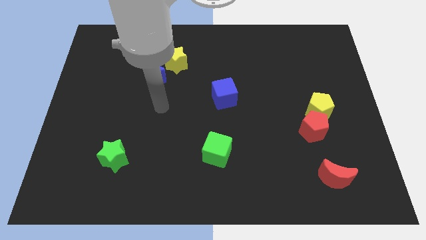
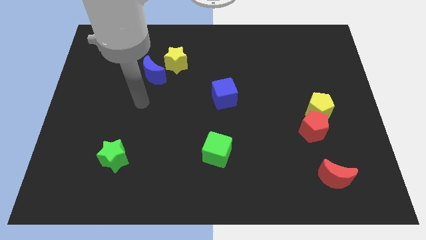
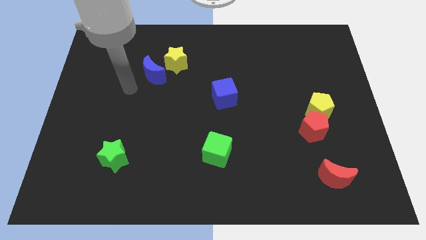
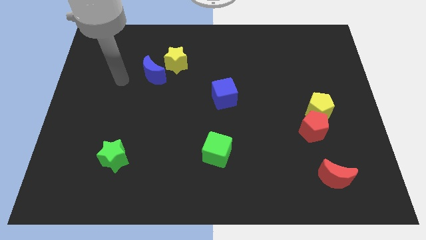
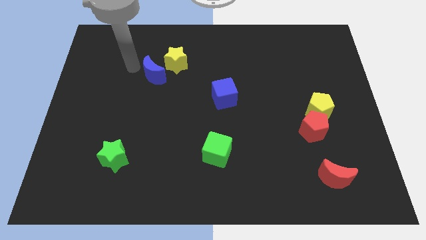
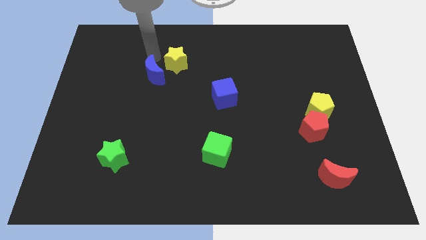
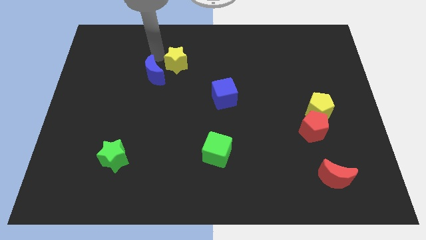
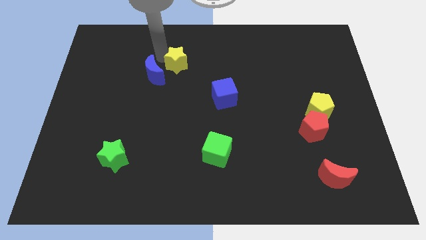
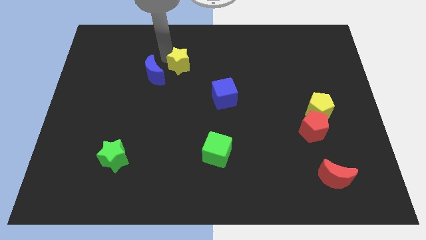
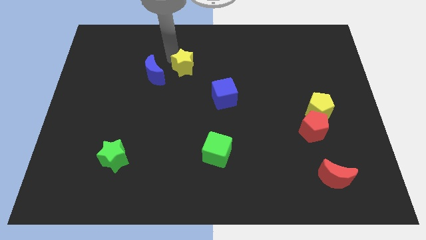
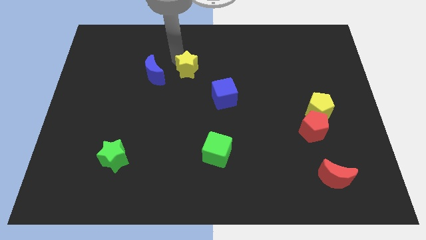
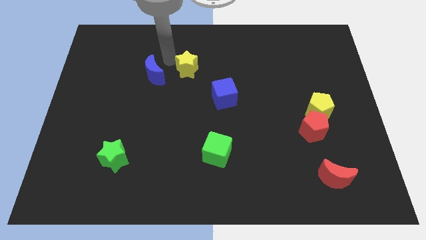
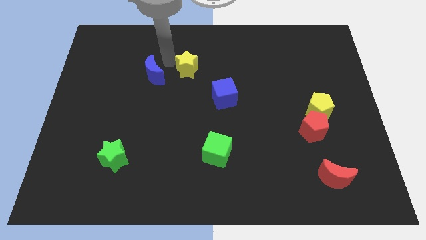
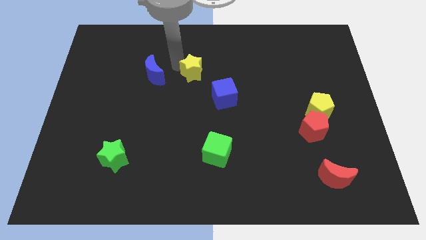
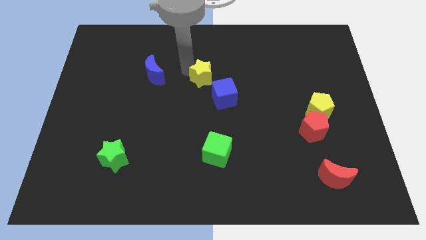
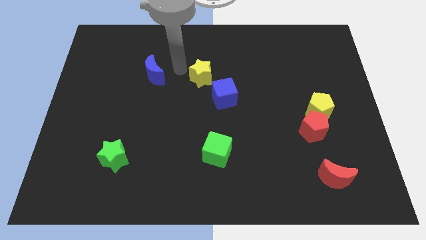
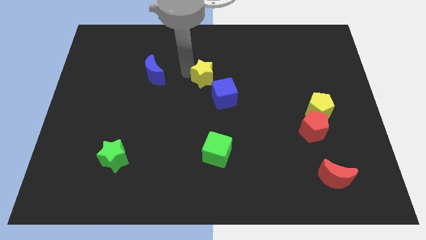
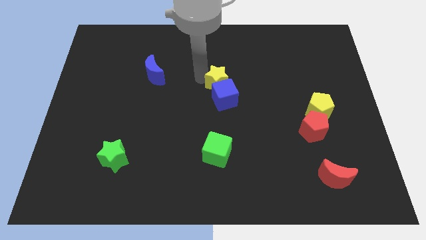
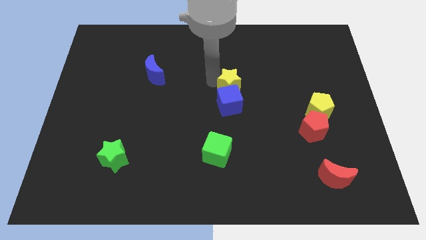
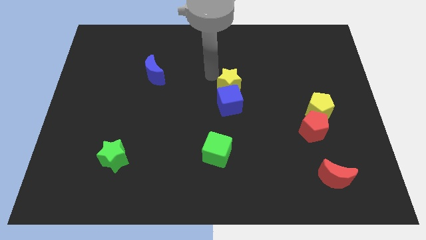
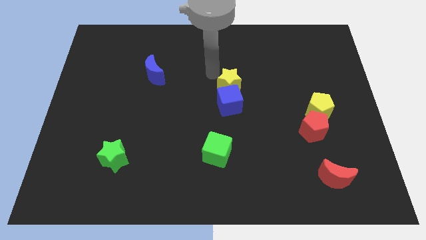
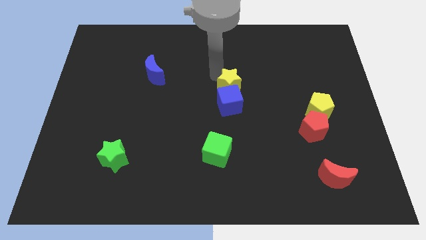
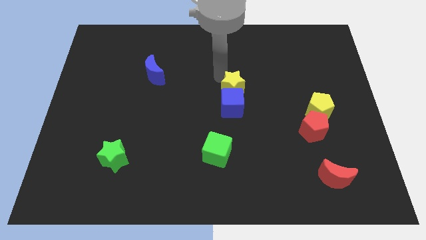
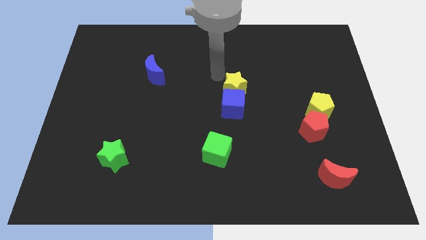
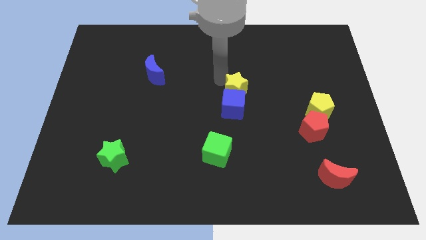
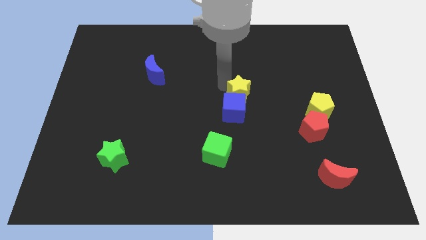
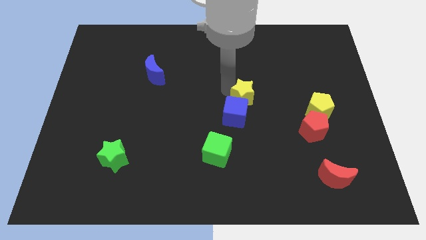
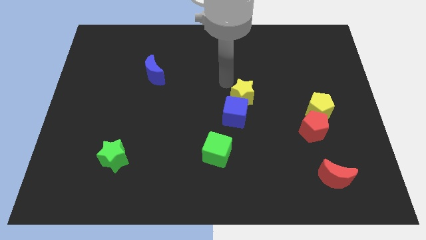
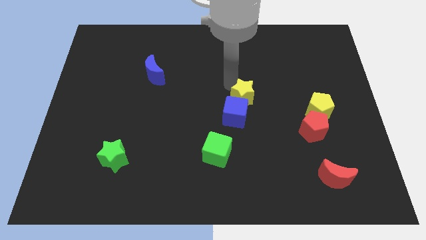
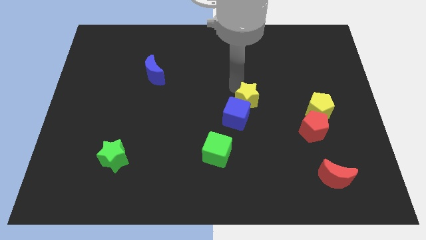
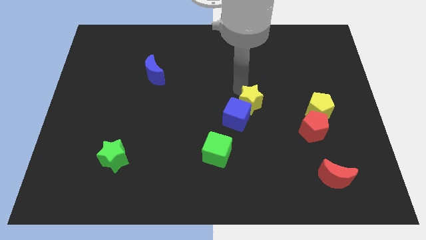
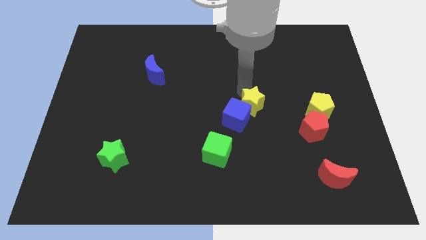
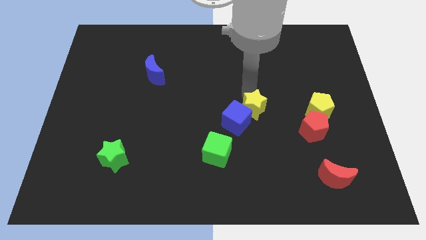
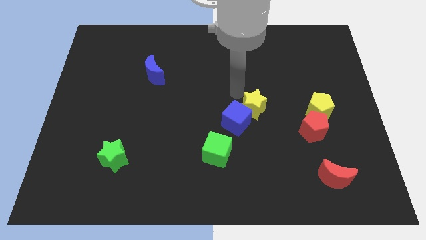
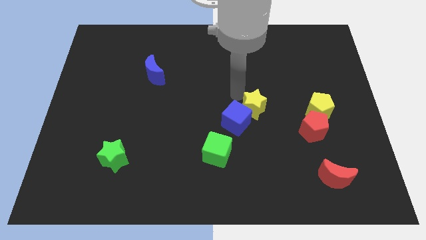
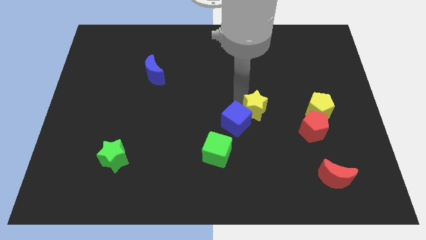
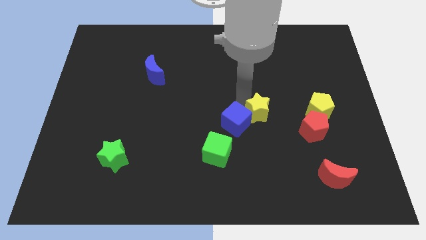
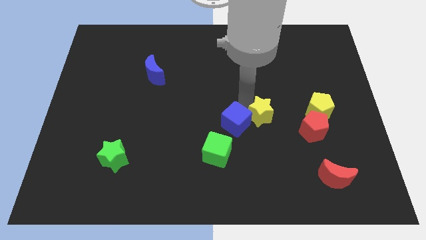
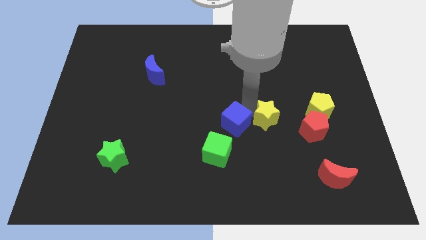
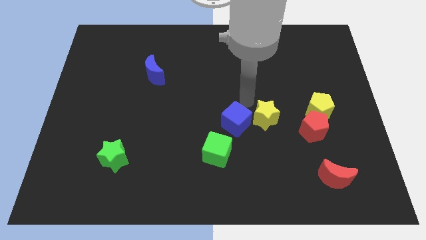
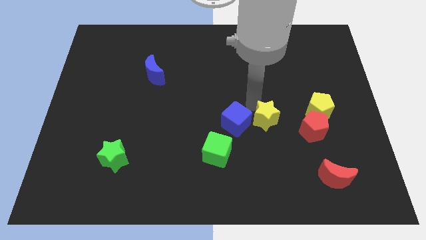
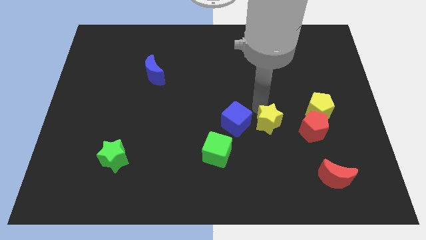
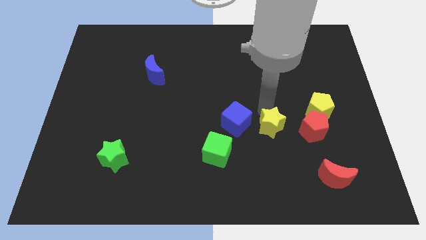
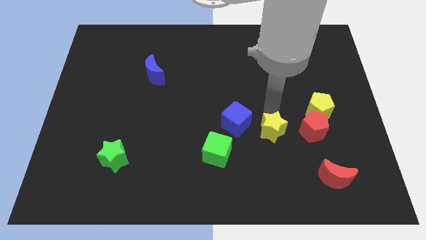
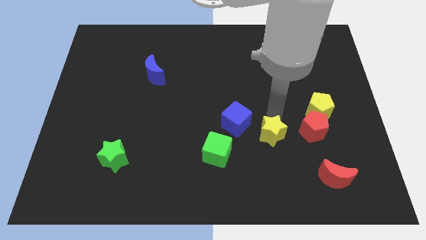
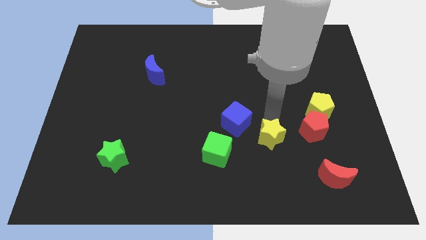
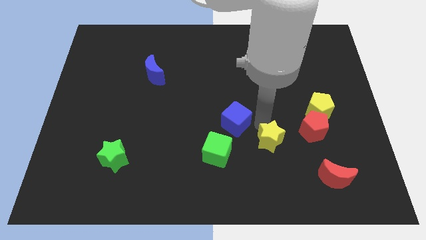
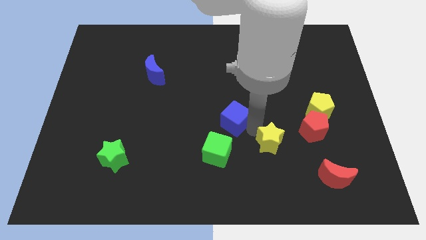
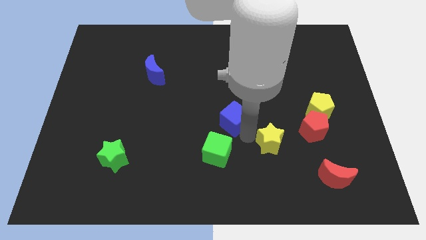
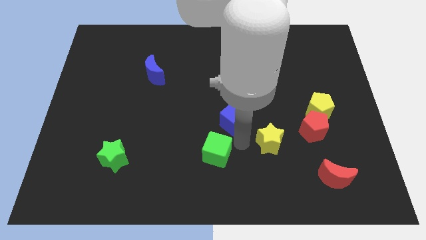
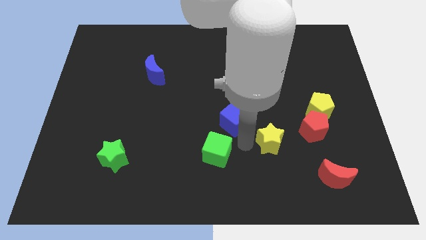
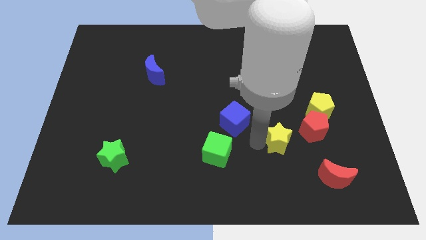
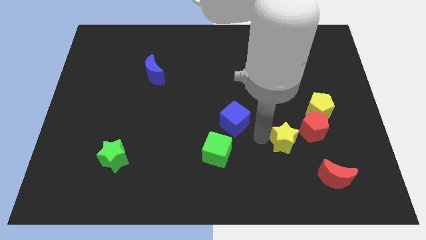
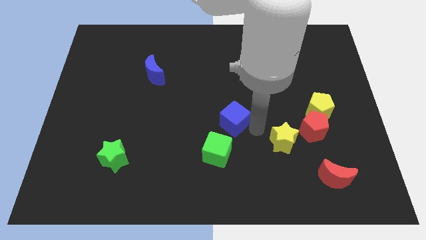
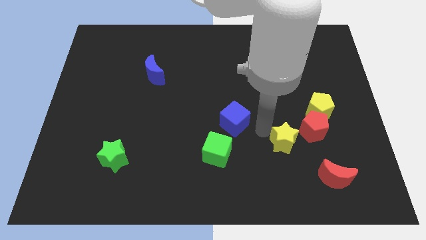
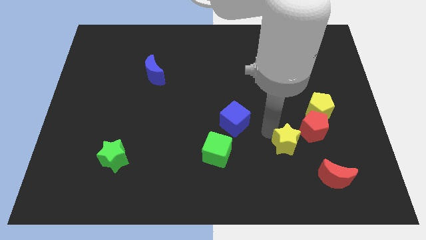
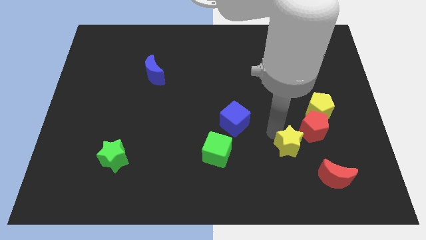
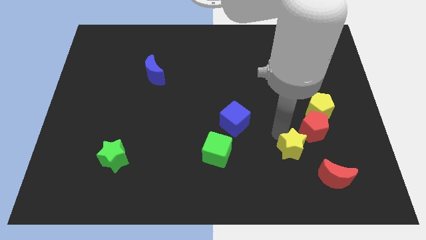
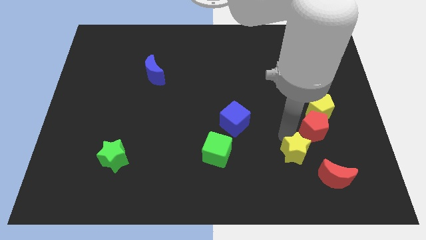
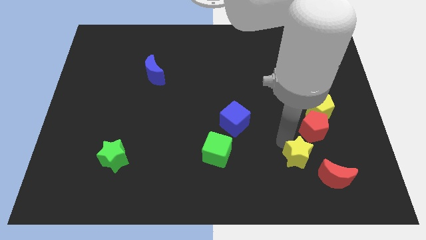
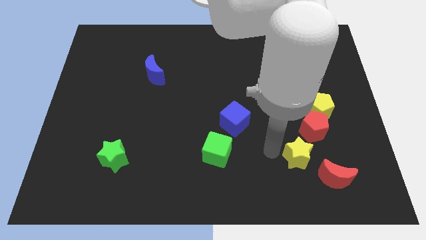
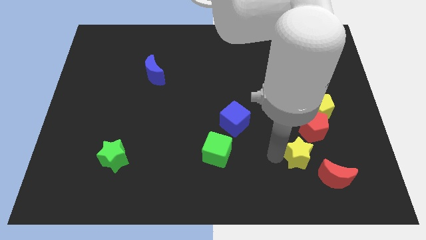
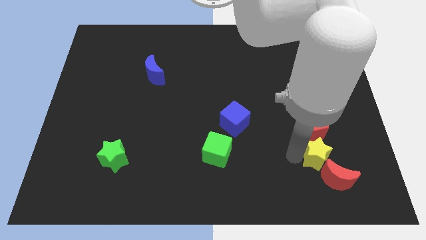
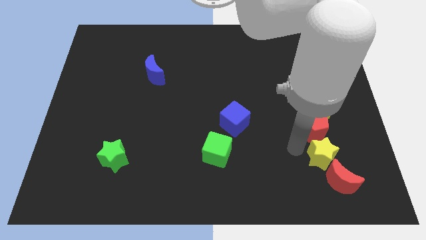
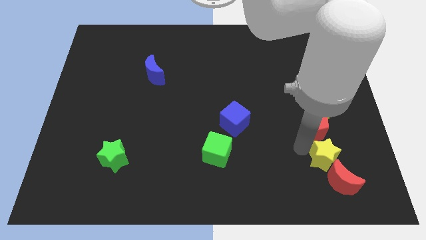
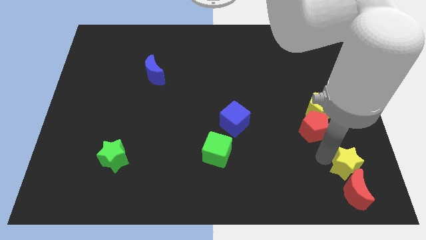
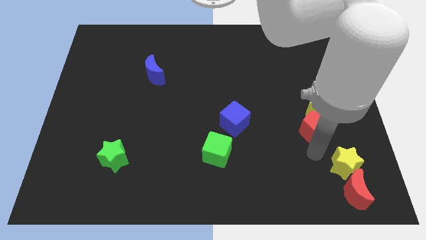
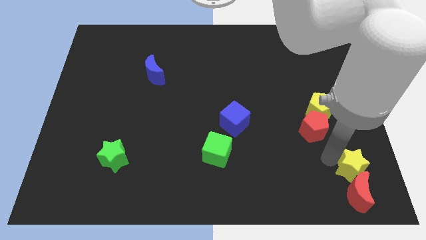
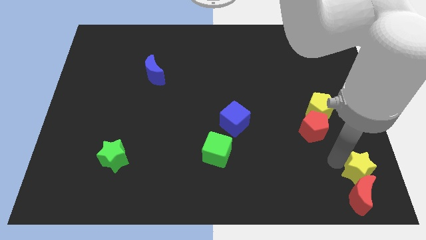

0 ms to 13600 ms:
put the yellow star to the bottom right corner

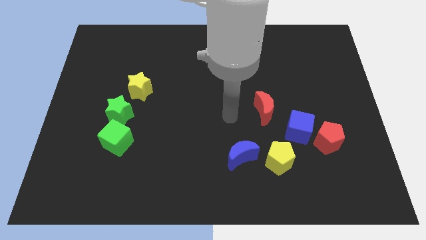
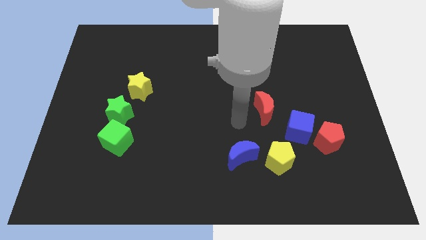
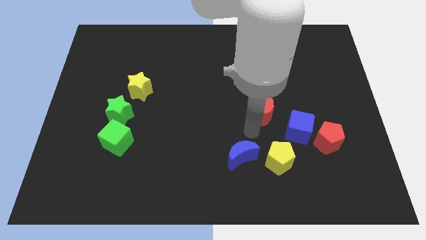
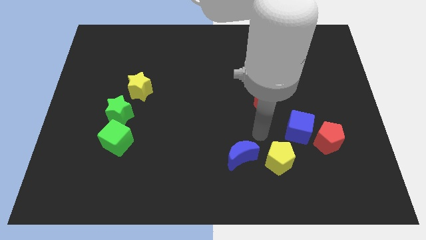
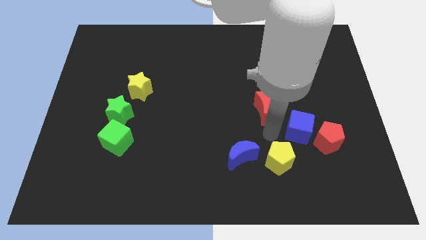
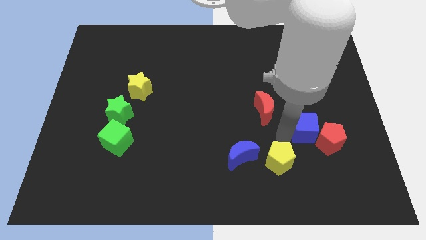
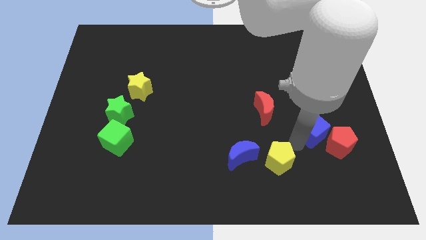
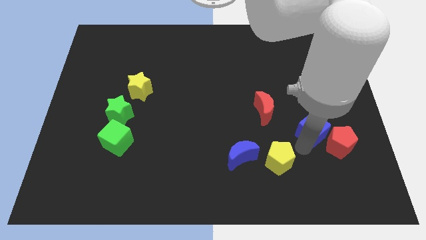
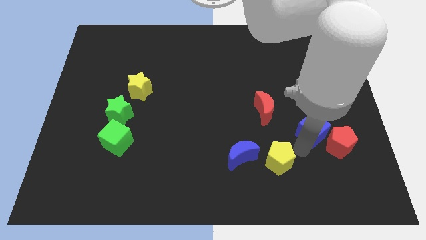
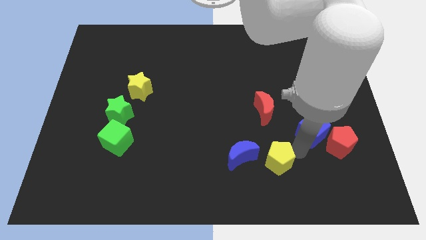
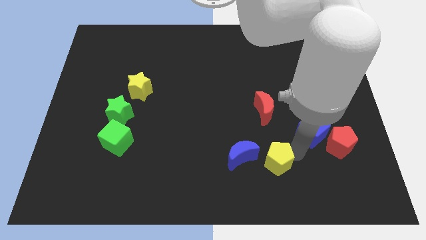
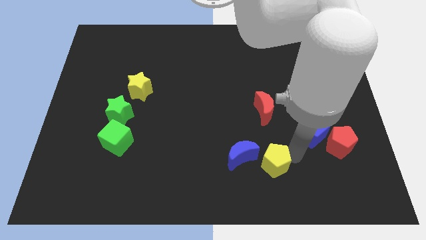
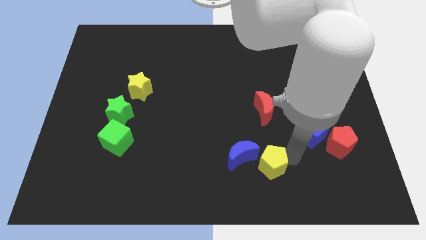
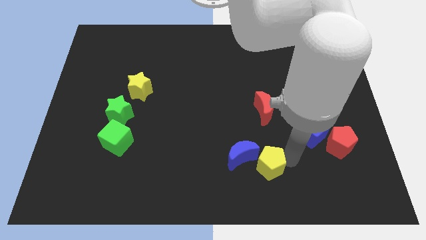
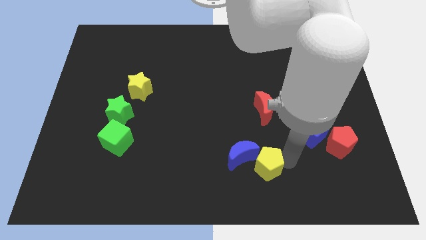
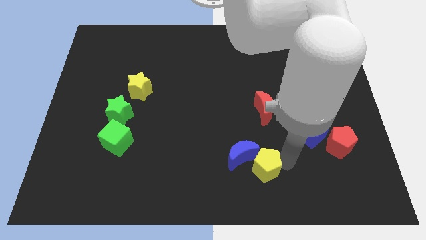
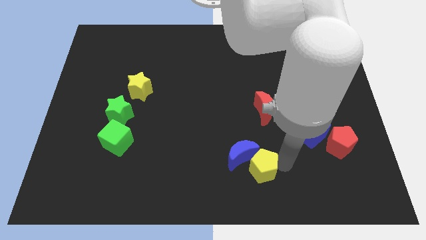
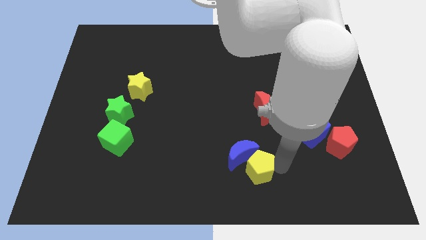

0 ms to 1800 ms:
move the yellow pentagon to the bottom side
